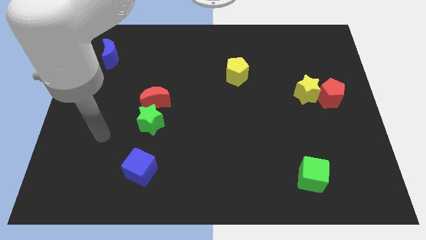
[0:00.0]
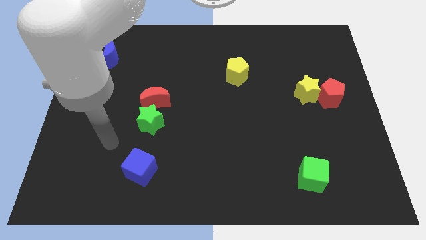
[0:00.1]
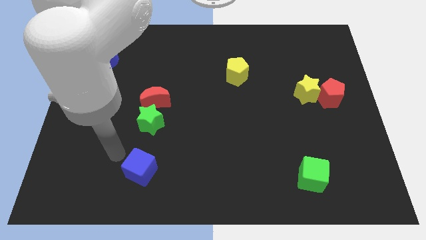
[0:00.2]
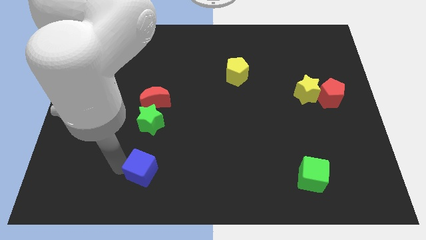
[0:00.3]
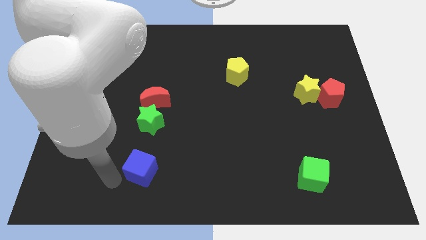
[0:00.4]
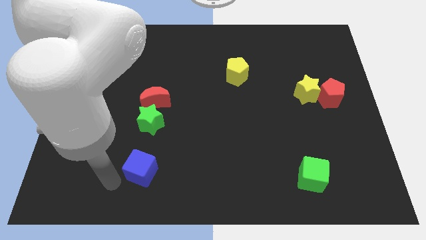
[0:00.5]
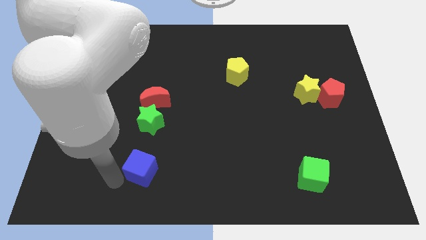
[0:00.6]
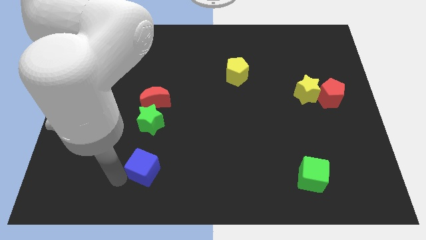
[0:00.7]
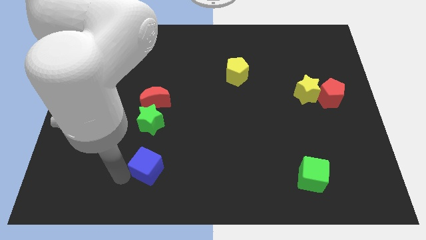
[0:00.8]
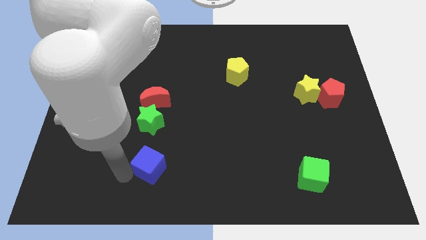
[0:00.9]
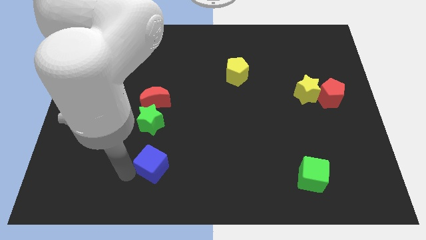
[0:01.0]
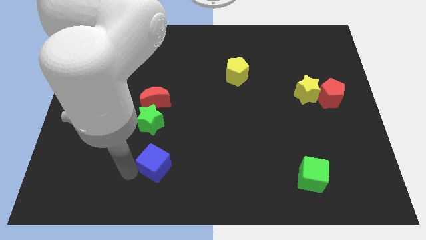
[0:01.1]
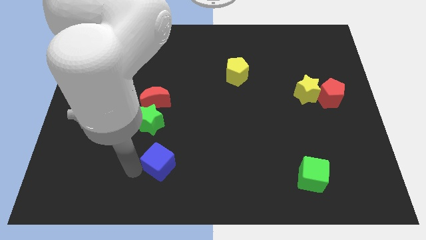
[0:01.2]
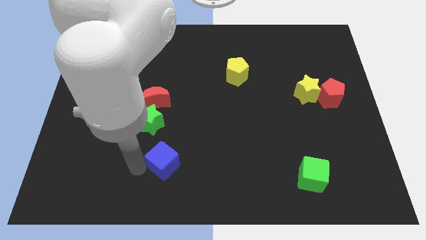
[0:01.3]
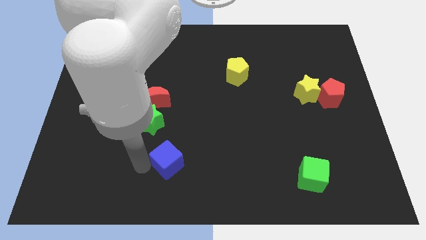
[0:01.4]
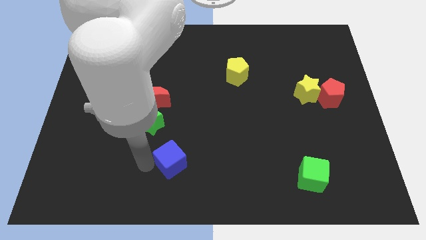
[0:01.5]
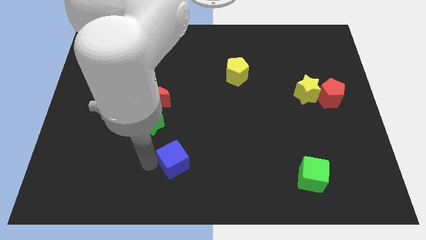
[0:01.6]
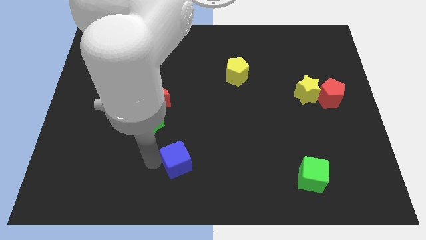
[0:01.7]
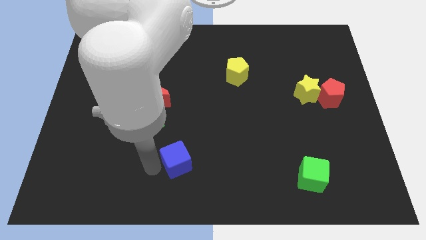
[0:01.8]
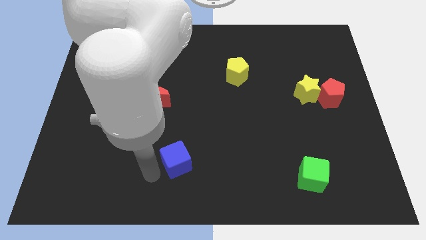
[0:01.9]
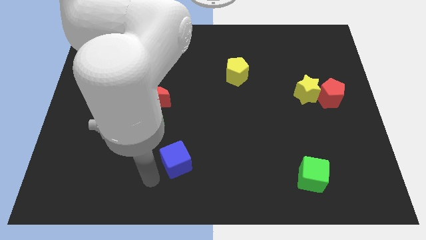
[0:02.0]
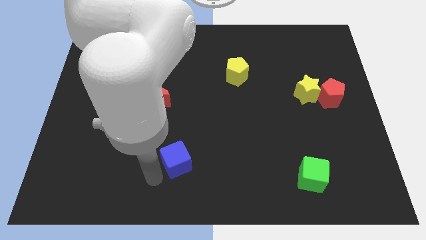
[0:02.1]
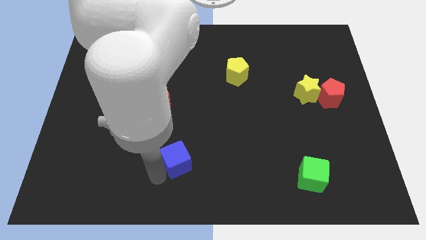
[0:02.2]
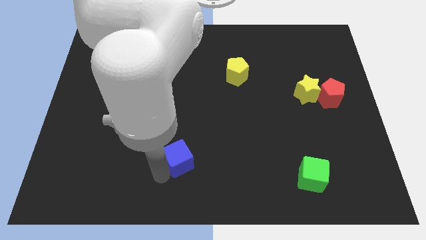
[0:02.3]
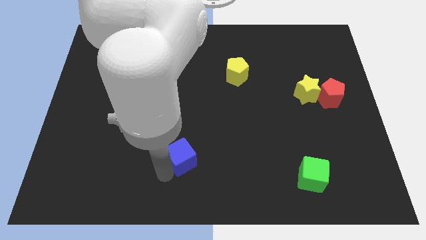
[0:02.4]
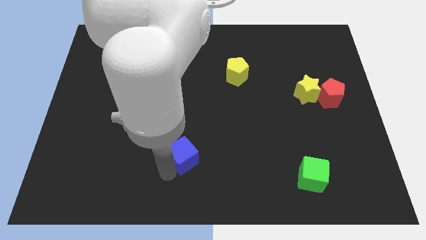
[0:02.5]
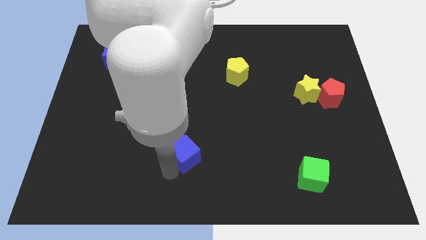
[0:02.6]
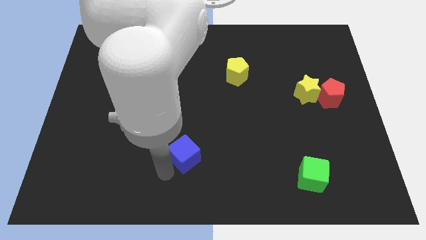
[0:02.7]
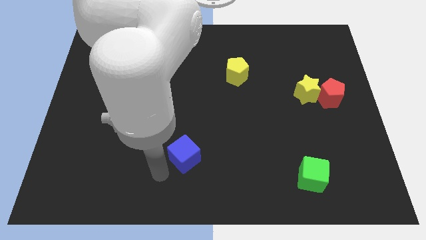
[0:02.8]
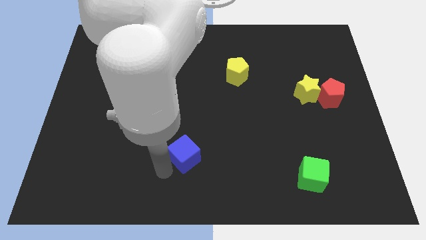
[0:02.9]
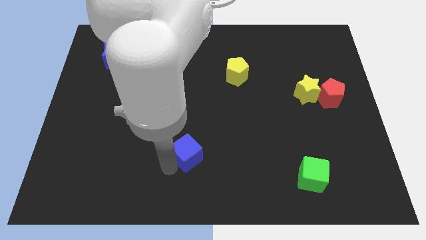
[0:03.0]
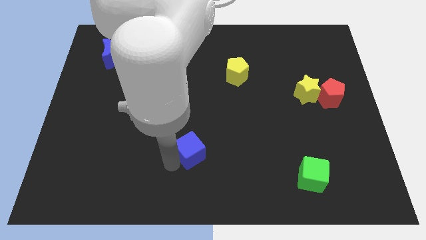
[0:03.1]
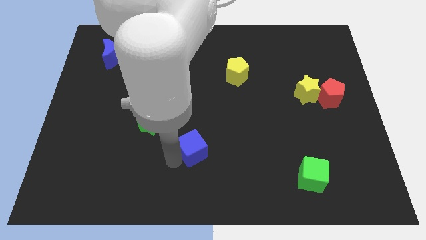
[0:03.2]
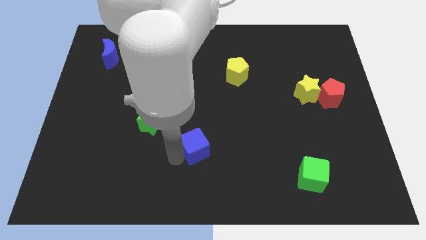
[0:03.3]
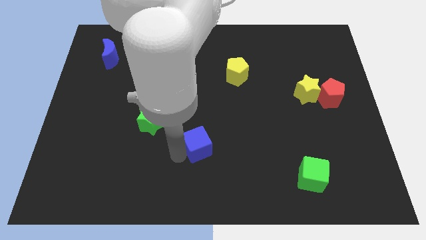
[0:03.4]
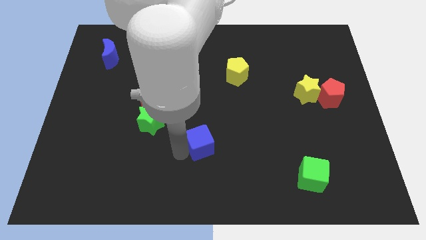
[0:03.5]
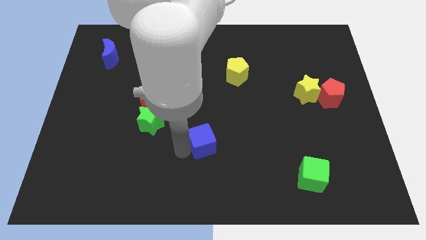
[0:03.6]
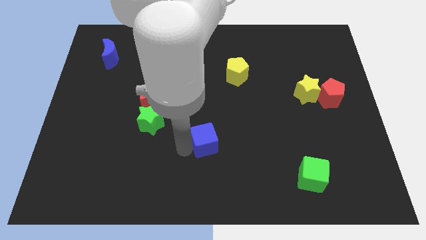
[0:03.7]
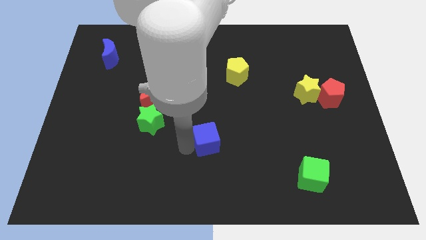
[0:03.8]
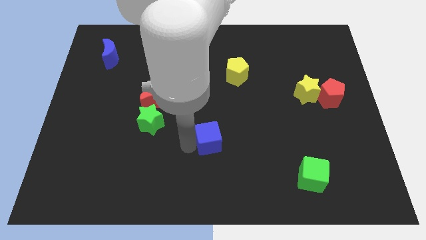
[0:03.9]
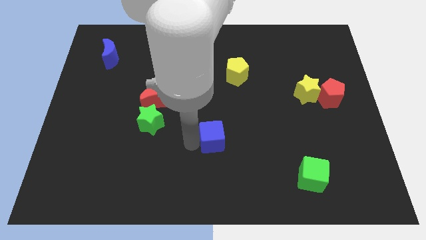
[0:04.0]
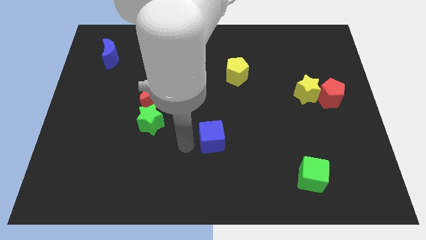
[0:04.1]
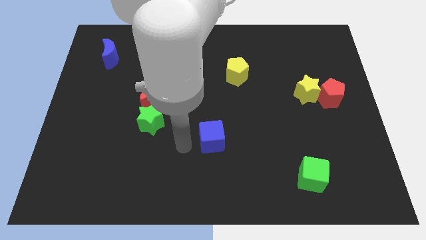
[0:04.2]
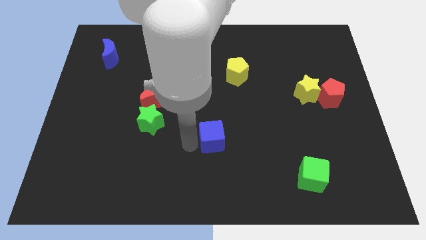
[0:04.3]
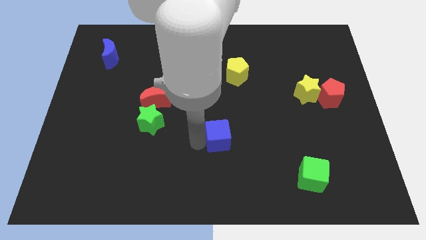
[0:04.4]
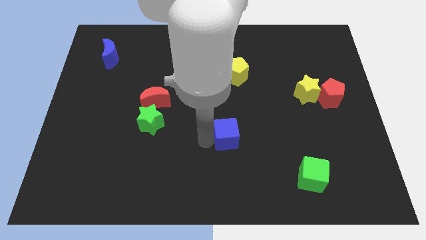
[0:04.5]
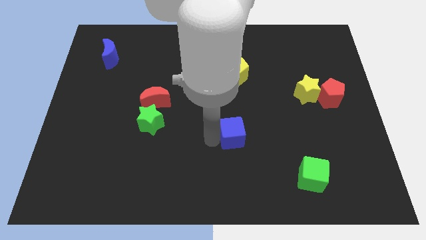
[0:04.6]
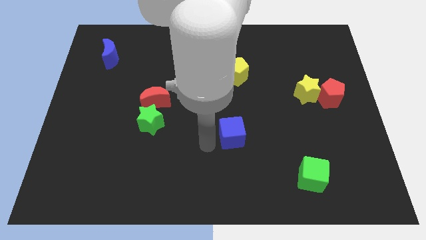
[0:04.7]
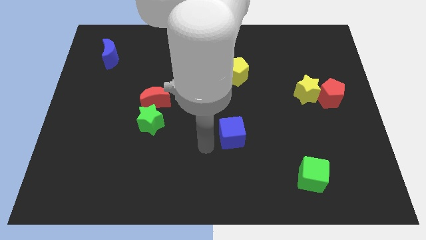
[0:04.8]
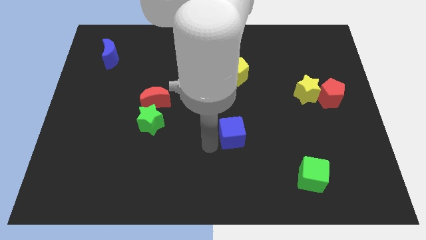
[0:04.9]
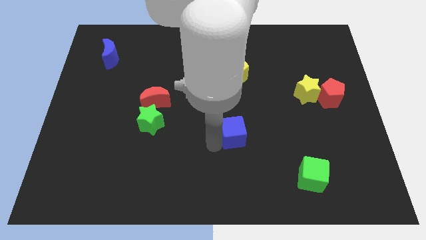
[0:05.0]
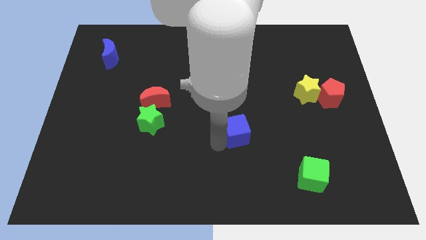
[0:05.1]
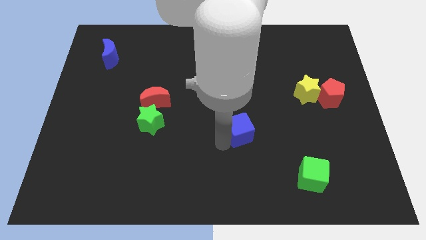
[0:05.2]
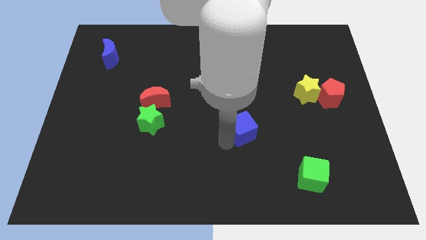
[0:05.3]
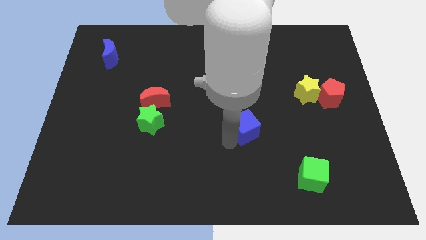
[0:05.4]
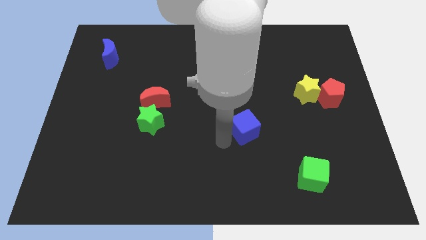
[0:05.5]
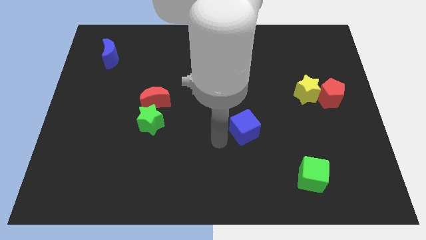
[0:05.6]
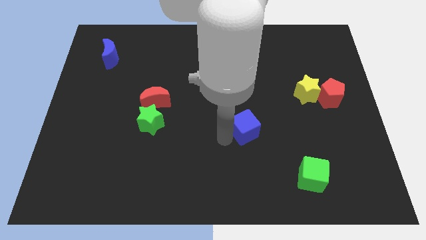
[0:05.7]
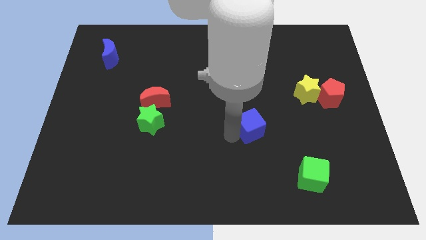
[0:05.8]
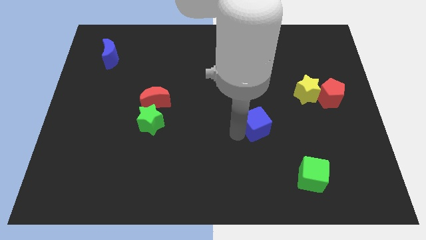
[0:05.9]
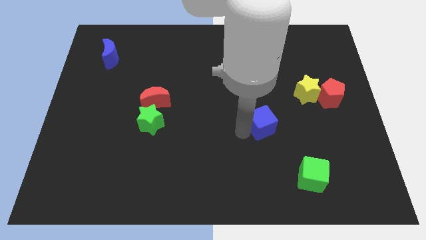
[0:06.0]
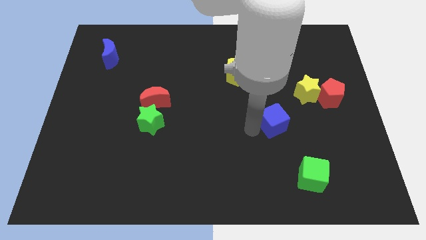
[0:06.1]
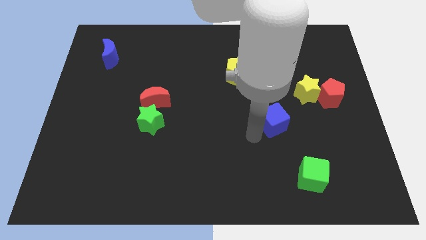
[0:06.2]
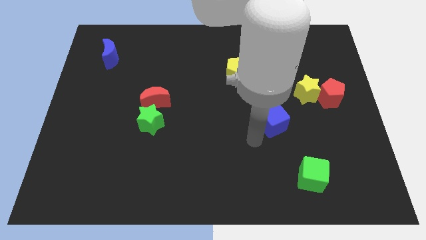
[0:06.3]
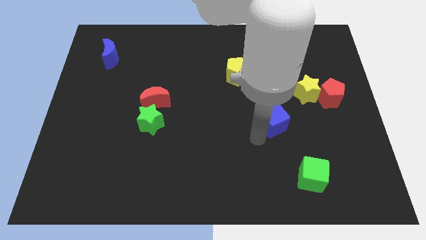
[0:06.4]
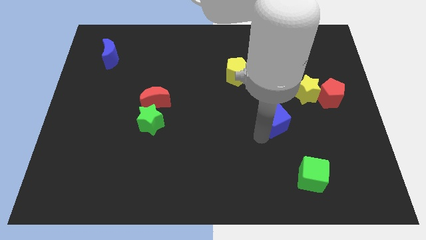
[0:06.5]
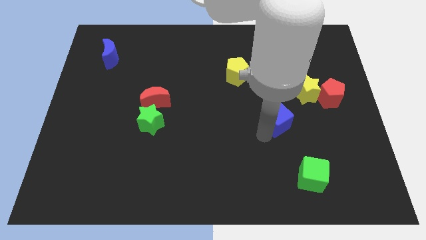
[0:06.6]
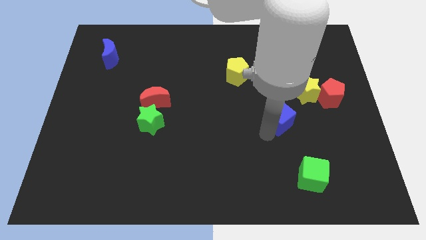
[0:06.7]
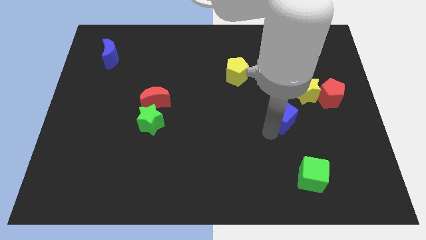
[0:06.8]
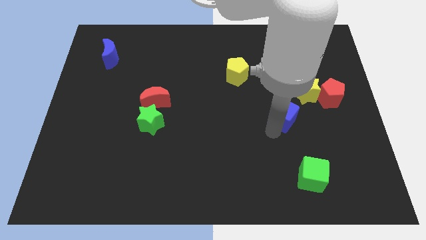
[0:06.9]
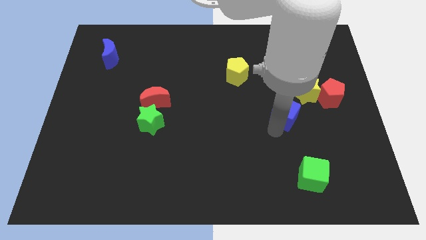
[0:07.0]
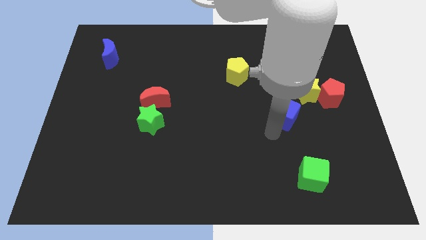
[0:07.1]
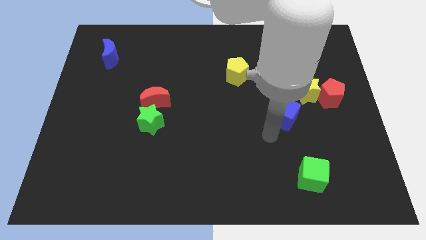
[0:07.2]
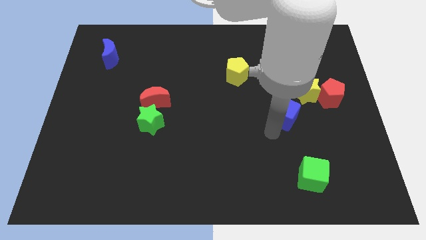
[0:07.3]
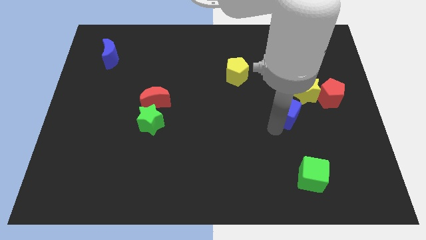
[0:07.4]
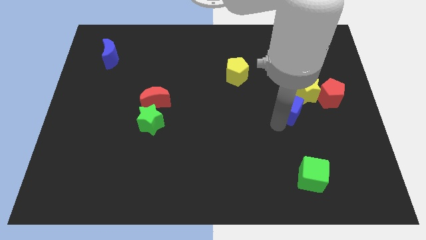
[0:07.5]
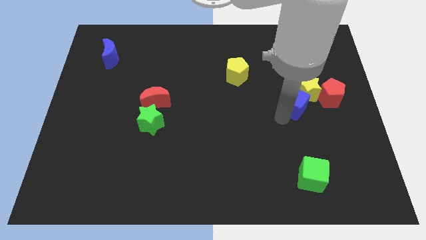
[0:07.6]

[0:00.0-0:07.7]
put the blue cube next to the yellow star
